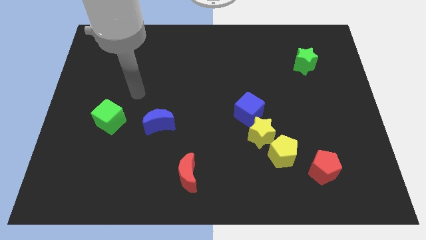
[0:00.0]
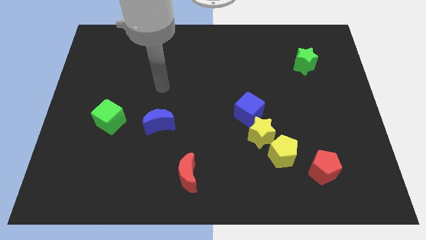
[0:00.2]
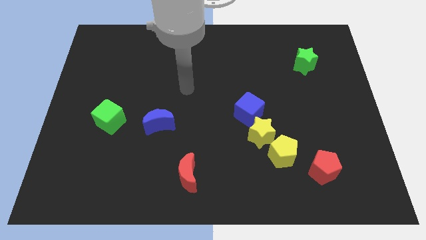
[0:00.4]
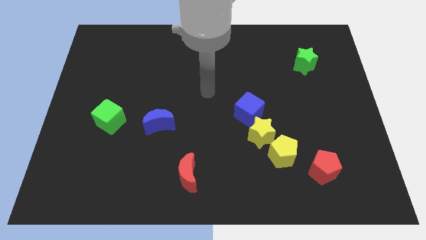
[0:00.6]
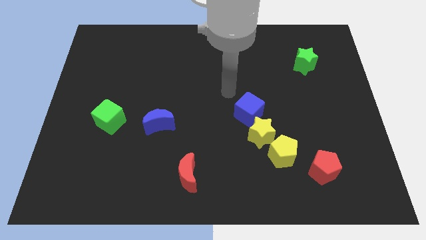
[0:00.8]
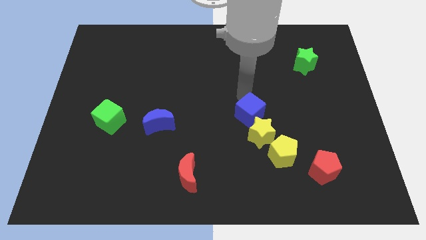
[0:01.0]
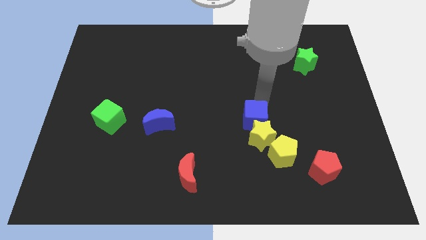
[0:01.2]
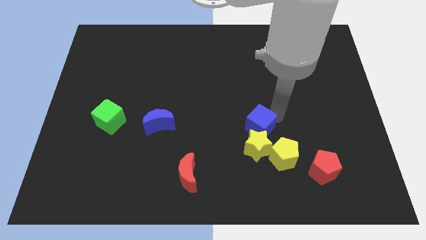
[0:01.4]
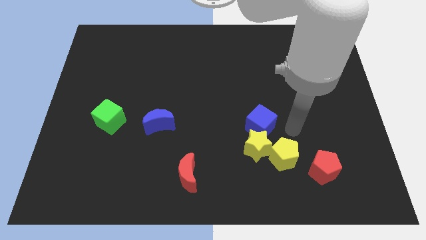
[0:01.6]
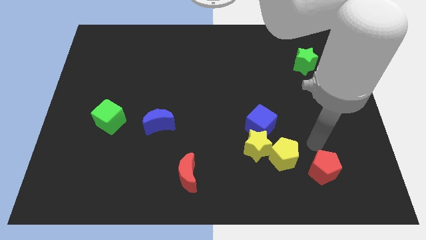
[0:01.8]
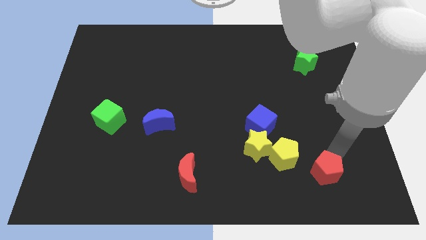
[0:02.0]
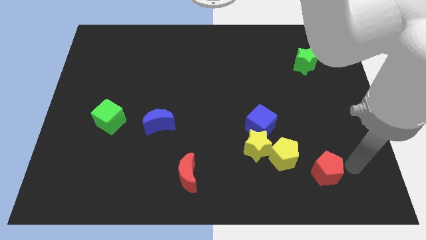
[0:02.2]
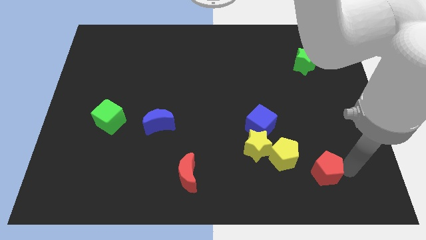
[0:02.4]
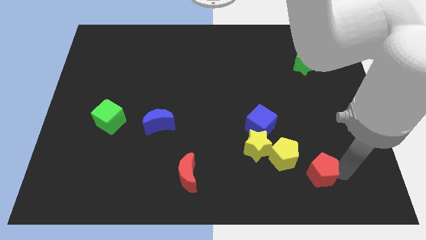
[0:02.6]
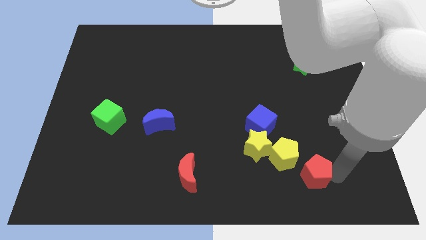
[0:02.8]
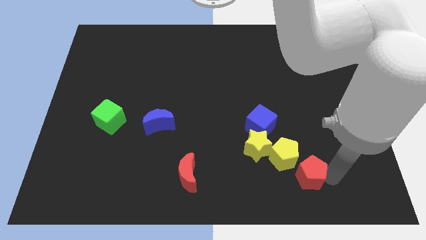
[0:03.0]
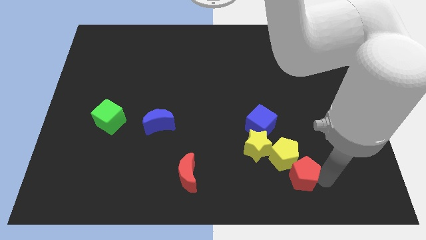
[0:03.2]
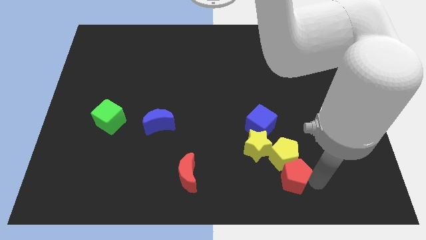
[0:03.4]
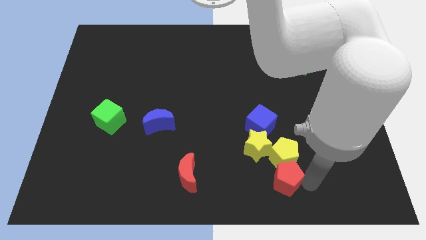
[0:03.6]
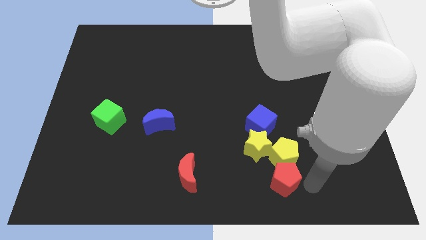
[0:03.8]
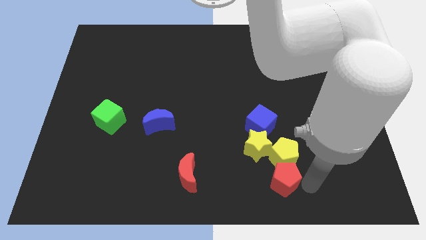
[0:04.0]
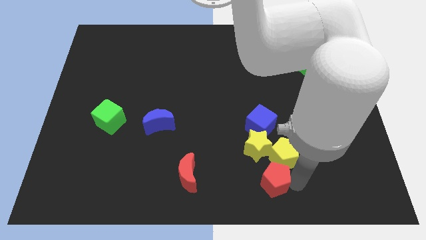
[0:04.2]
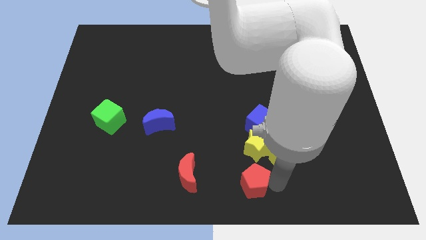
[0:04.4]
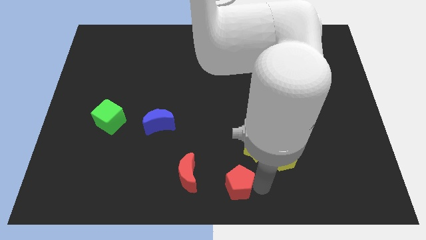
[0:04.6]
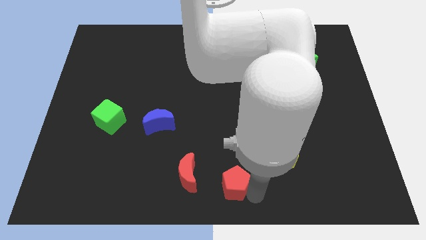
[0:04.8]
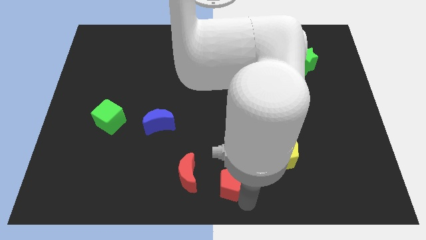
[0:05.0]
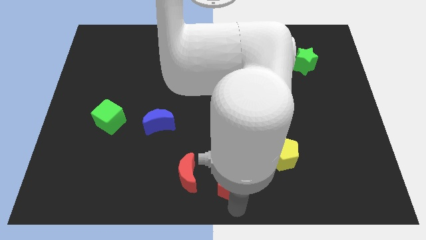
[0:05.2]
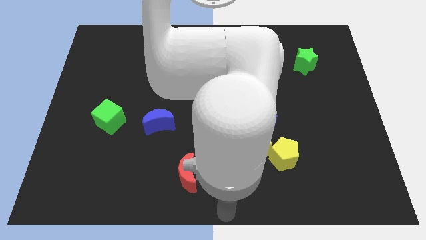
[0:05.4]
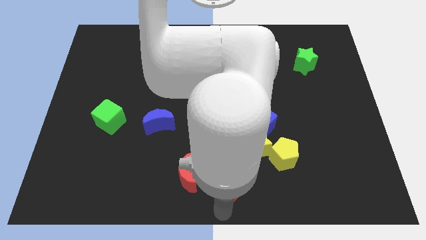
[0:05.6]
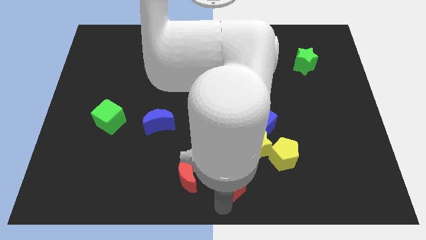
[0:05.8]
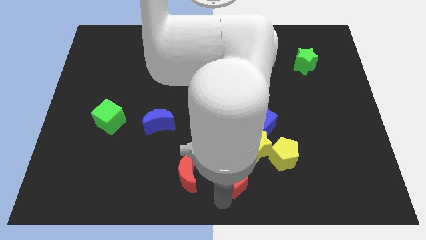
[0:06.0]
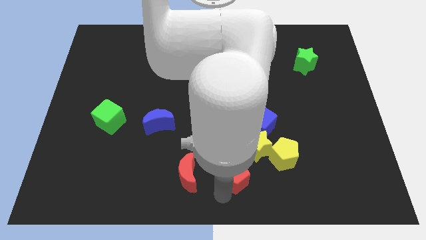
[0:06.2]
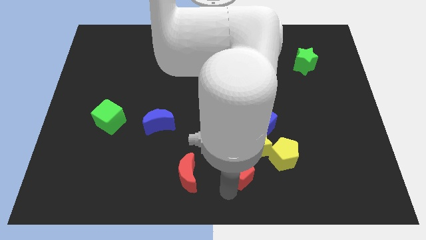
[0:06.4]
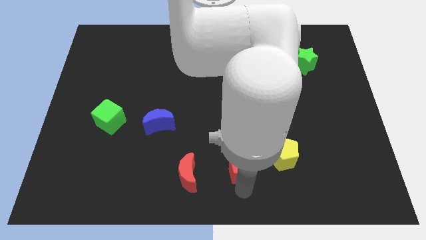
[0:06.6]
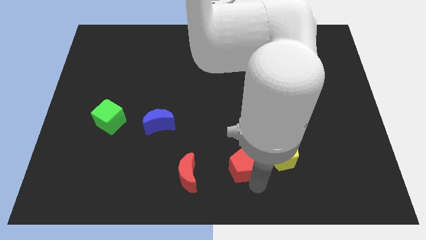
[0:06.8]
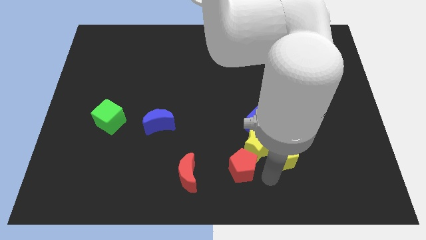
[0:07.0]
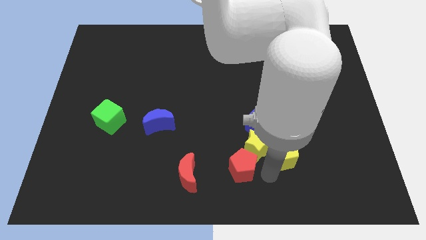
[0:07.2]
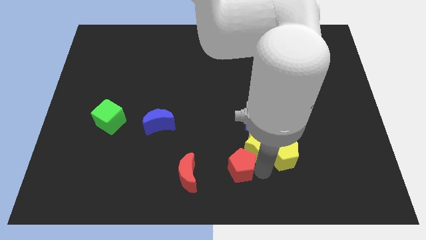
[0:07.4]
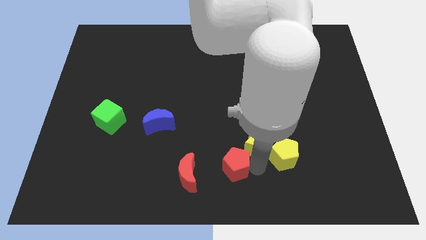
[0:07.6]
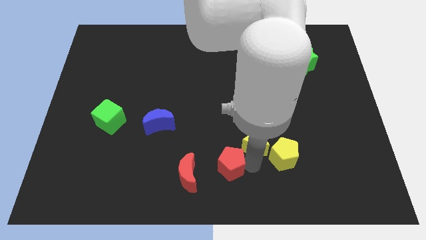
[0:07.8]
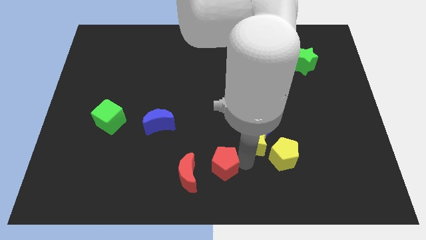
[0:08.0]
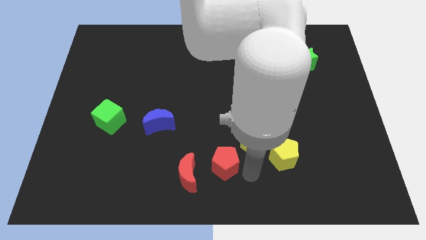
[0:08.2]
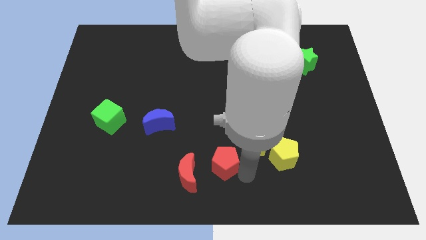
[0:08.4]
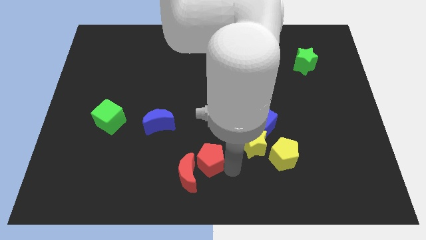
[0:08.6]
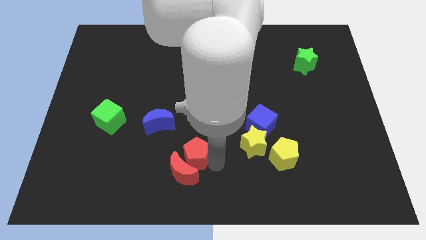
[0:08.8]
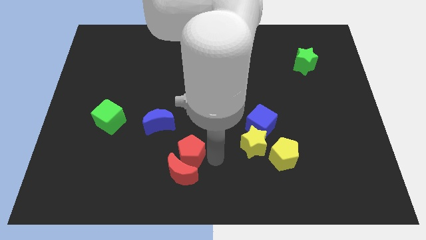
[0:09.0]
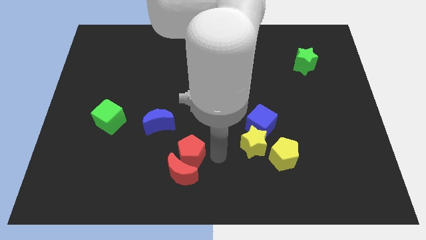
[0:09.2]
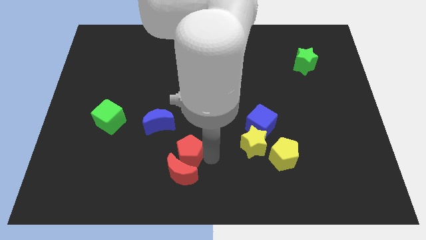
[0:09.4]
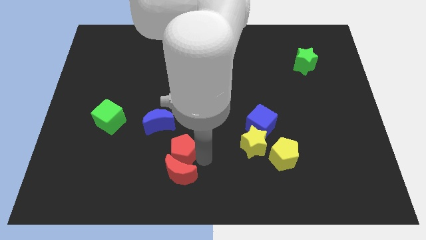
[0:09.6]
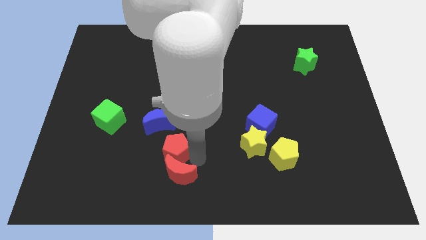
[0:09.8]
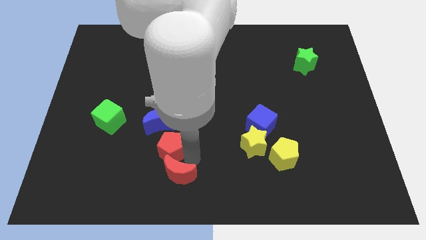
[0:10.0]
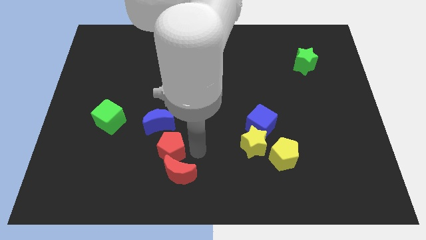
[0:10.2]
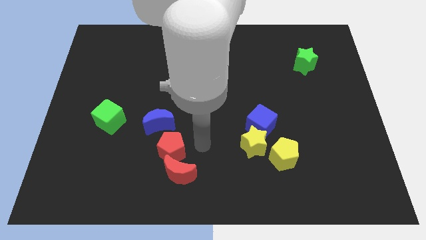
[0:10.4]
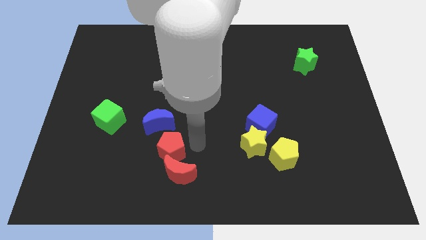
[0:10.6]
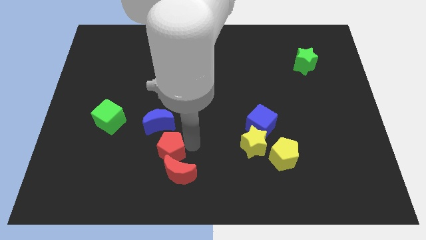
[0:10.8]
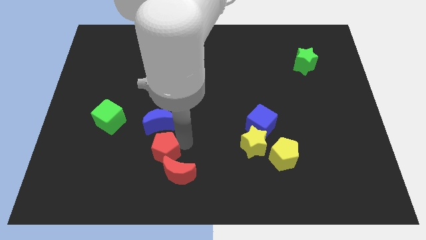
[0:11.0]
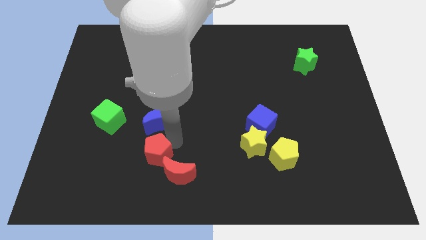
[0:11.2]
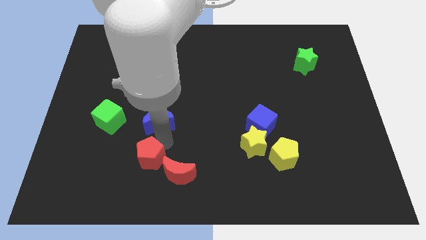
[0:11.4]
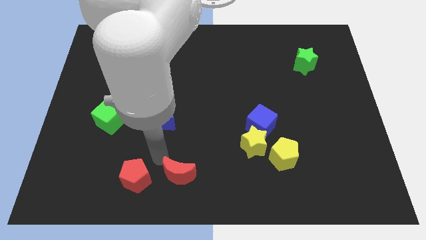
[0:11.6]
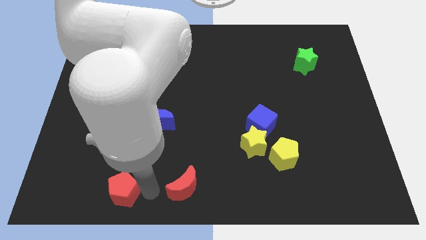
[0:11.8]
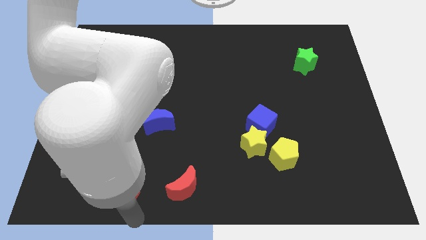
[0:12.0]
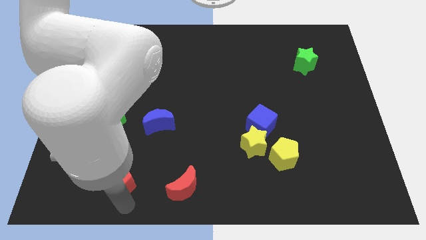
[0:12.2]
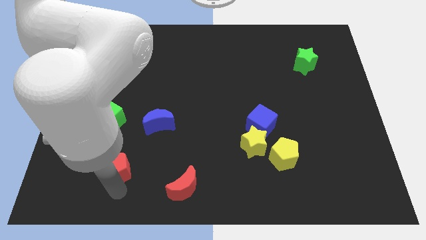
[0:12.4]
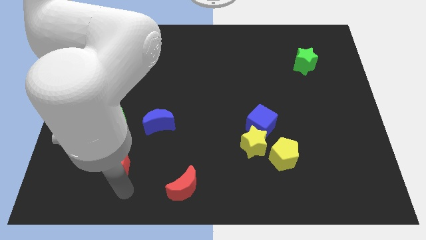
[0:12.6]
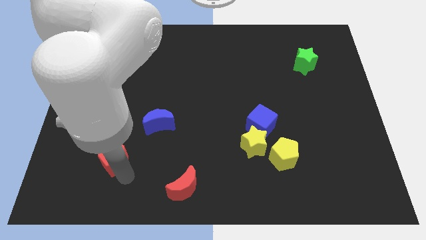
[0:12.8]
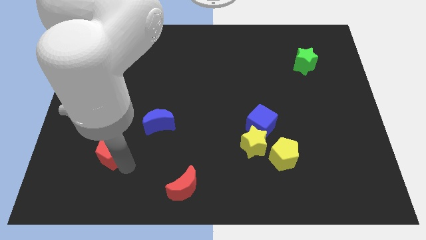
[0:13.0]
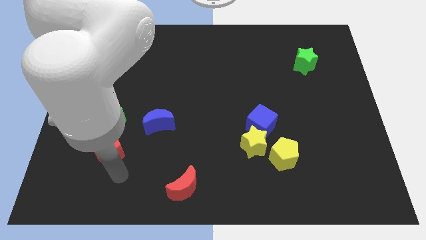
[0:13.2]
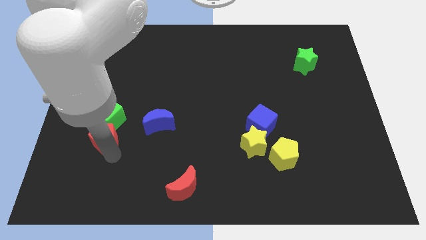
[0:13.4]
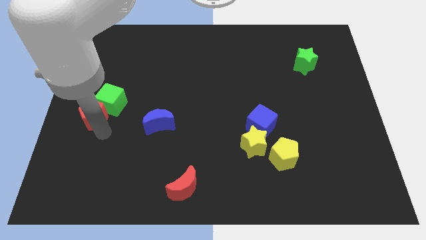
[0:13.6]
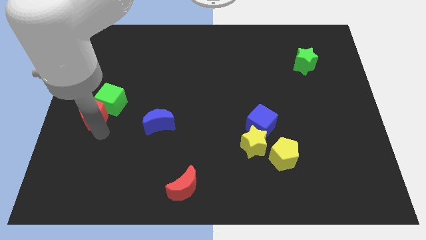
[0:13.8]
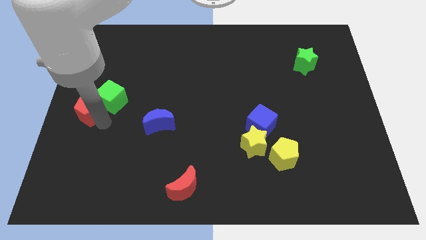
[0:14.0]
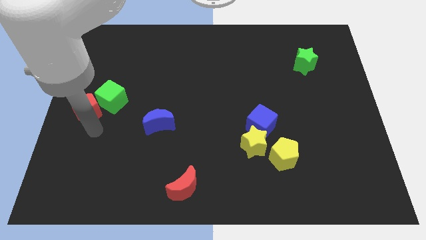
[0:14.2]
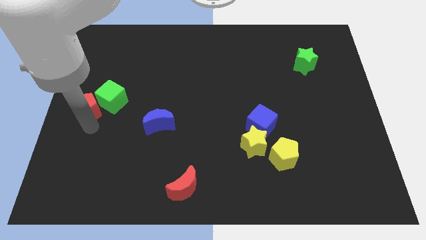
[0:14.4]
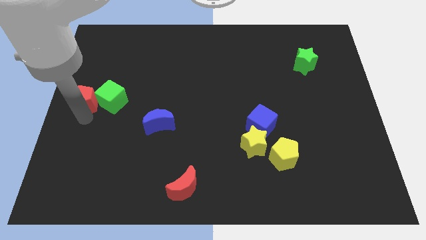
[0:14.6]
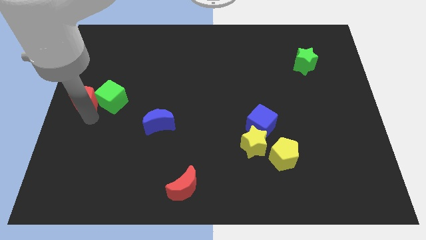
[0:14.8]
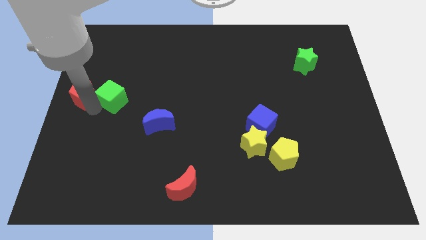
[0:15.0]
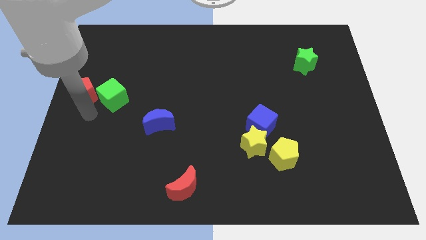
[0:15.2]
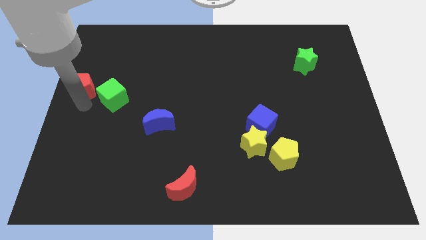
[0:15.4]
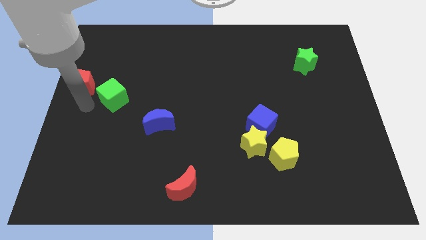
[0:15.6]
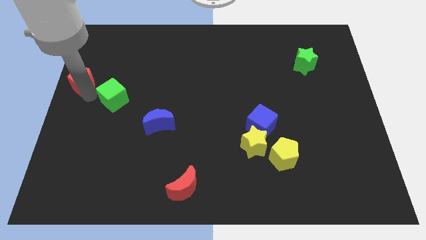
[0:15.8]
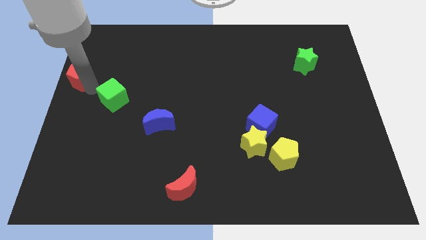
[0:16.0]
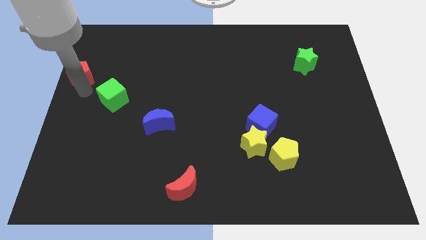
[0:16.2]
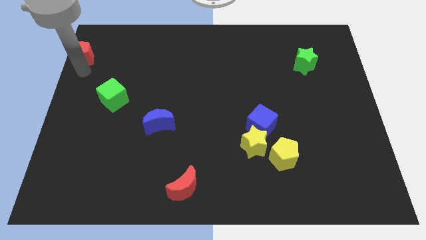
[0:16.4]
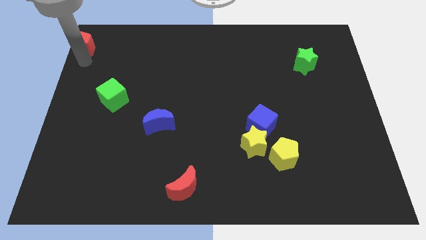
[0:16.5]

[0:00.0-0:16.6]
slide the red pentagon to the upper left corner
